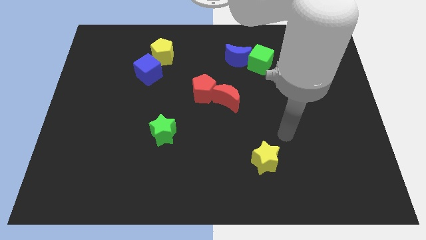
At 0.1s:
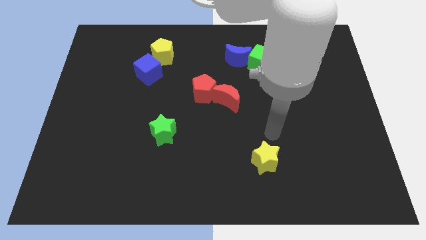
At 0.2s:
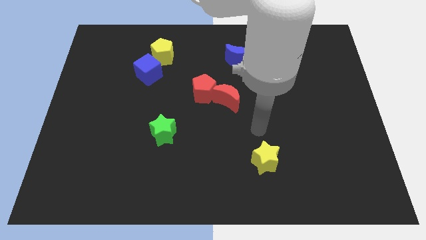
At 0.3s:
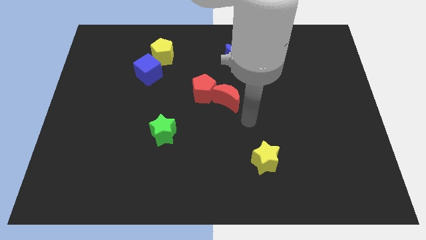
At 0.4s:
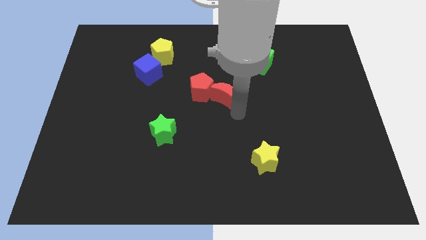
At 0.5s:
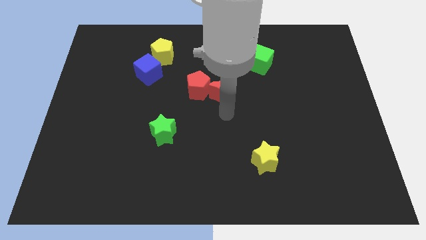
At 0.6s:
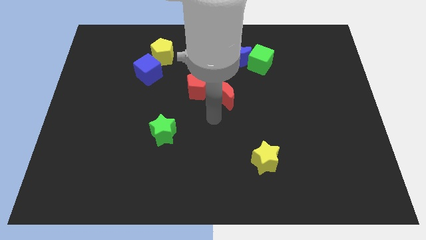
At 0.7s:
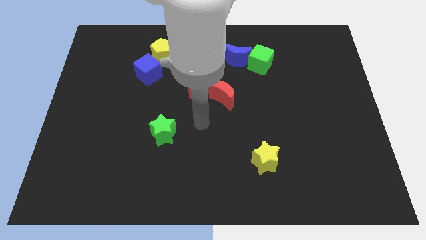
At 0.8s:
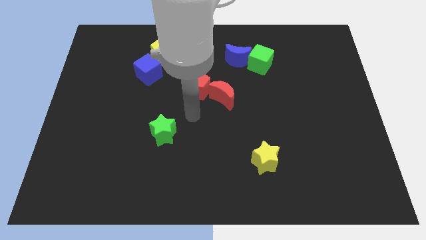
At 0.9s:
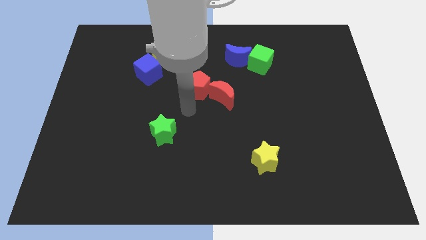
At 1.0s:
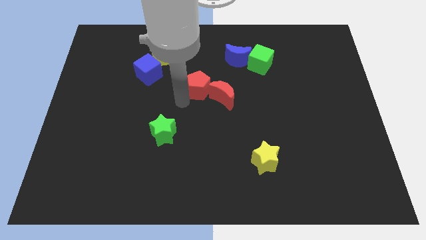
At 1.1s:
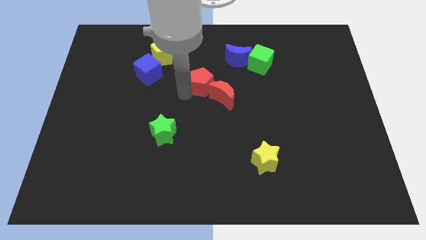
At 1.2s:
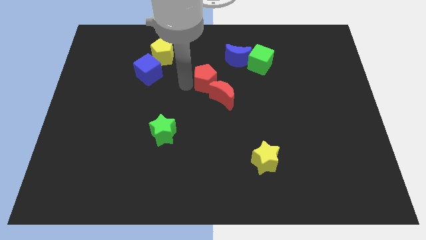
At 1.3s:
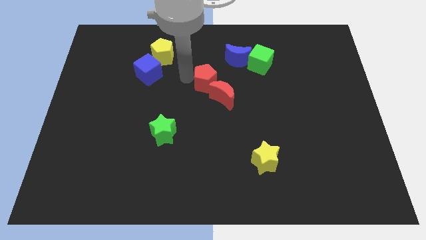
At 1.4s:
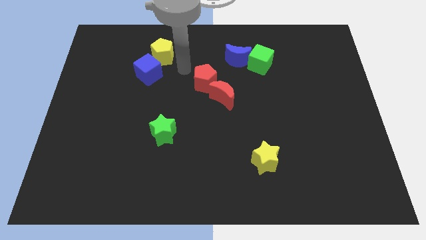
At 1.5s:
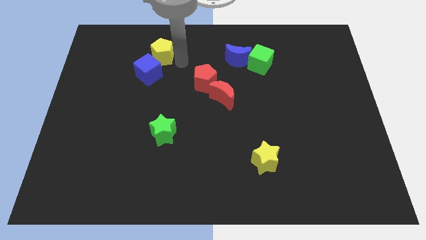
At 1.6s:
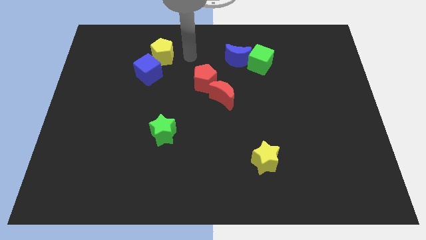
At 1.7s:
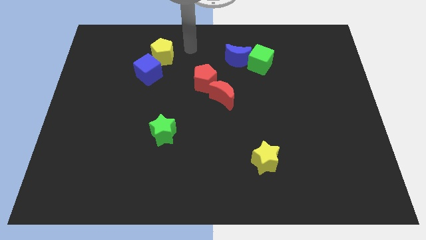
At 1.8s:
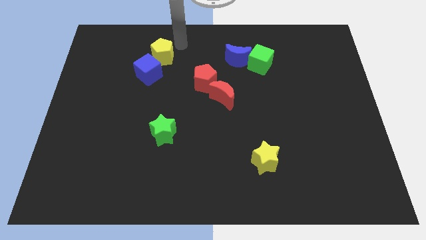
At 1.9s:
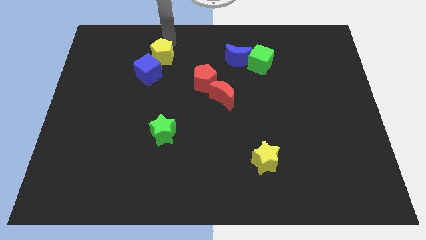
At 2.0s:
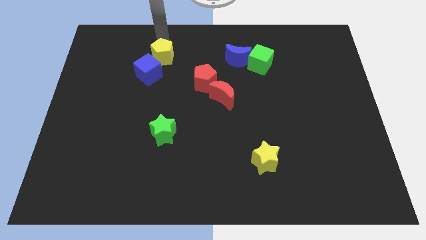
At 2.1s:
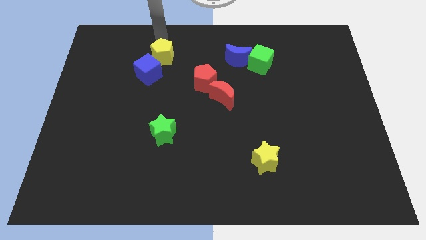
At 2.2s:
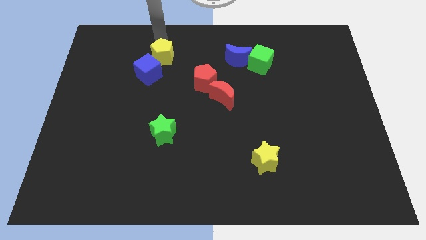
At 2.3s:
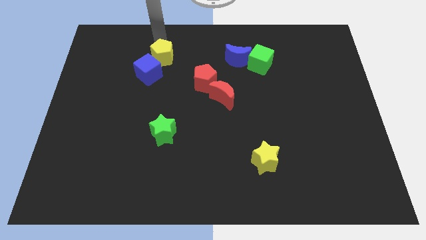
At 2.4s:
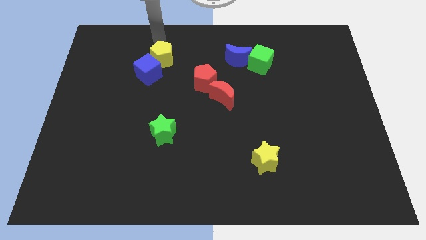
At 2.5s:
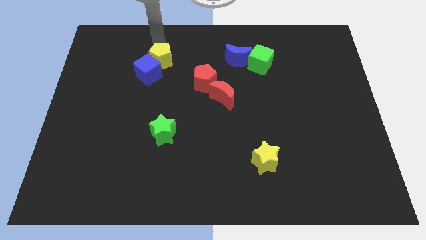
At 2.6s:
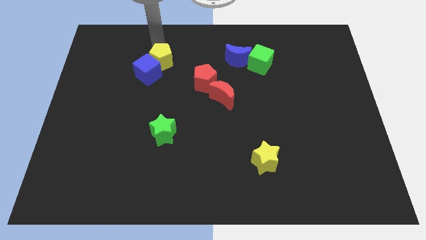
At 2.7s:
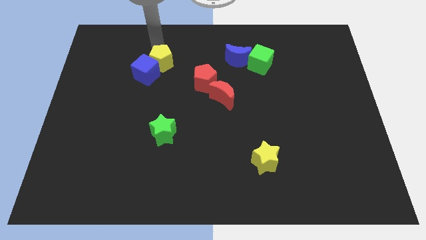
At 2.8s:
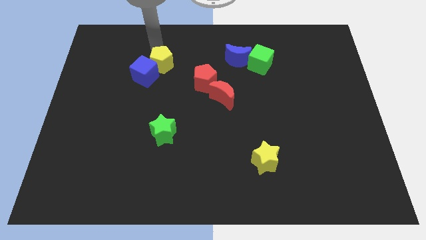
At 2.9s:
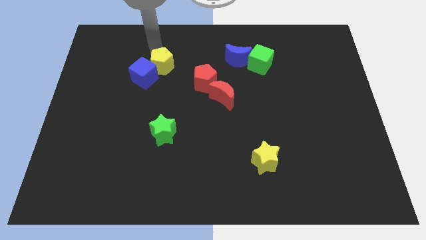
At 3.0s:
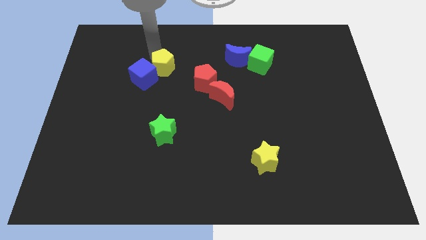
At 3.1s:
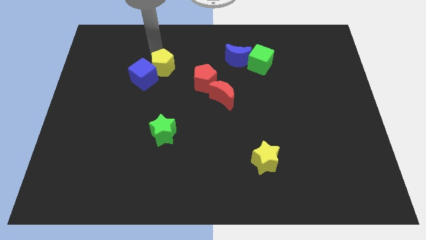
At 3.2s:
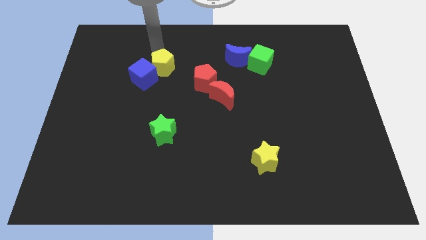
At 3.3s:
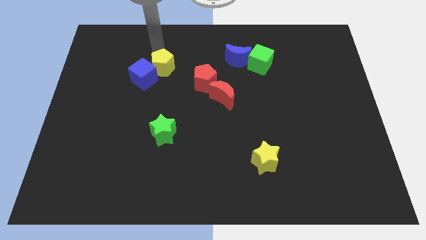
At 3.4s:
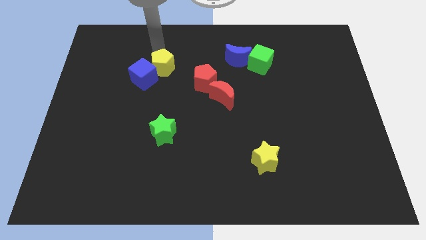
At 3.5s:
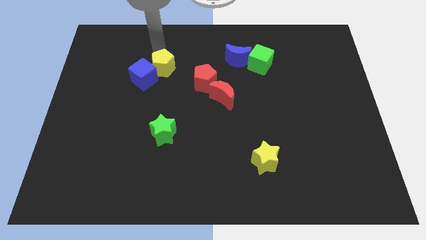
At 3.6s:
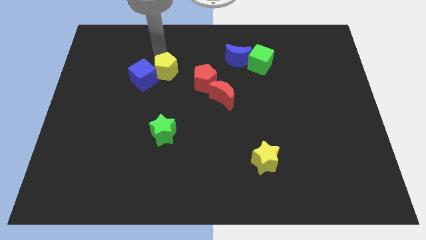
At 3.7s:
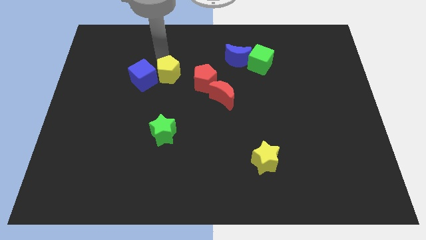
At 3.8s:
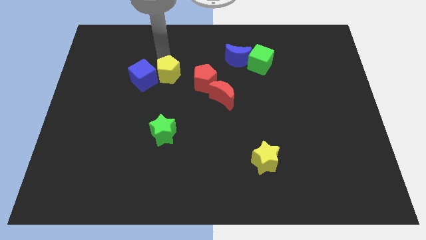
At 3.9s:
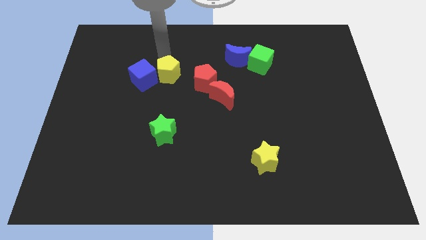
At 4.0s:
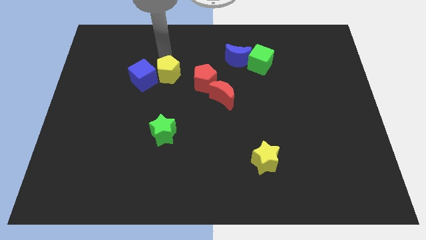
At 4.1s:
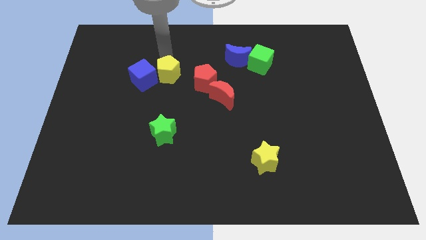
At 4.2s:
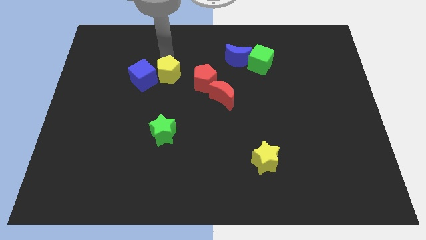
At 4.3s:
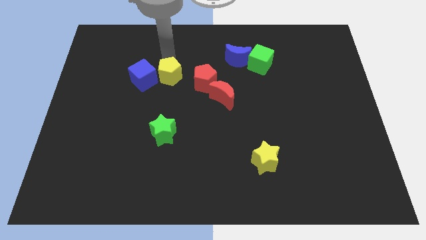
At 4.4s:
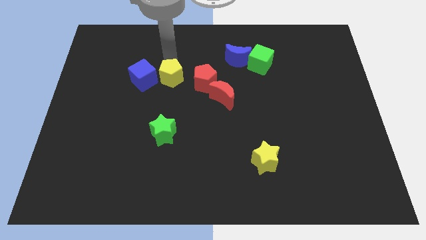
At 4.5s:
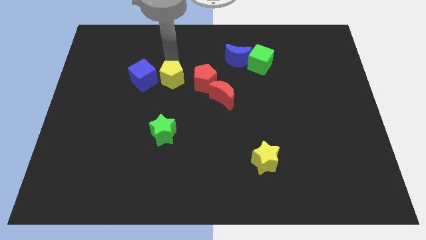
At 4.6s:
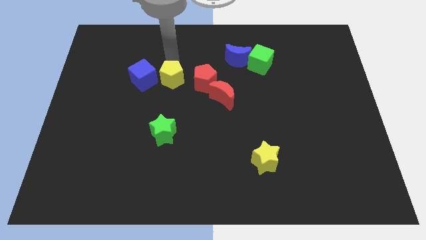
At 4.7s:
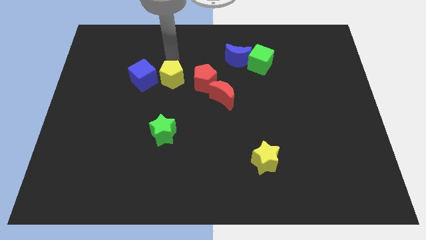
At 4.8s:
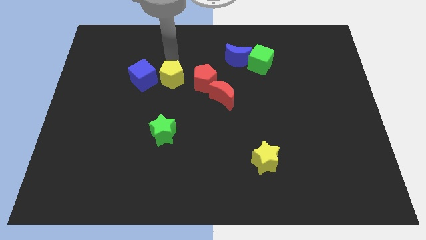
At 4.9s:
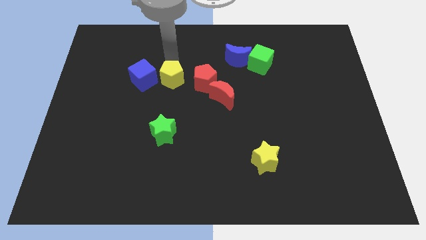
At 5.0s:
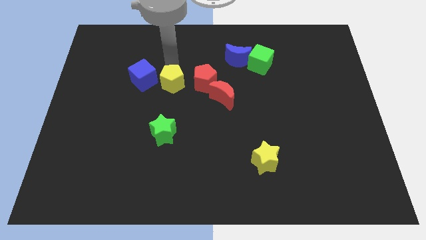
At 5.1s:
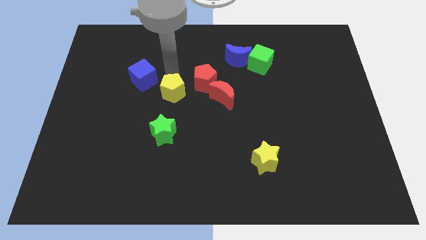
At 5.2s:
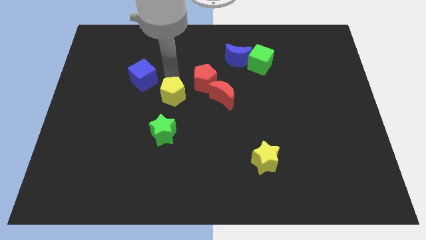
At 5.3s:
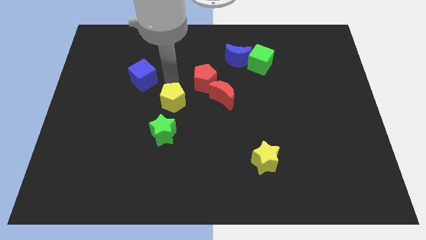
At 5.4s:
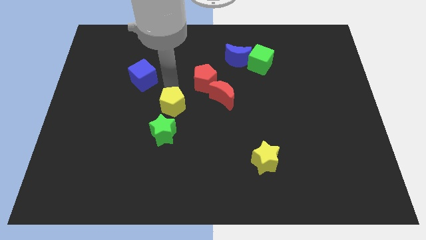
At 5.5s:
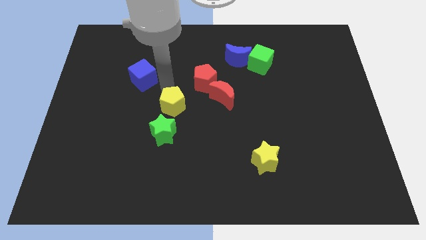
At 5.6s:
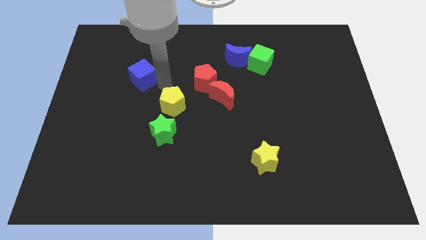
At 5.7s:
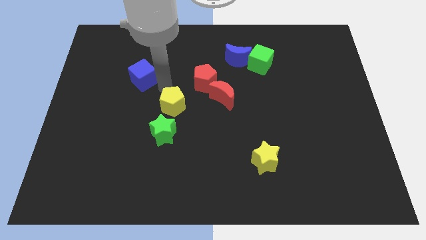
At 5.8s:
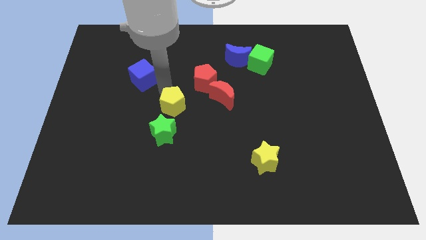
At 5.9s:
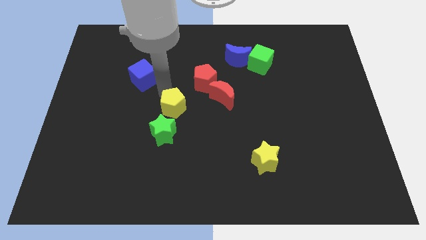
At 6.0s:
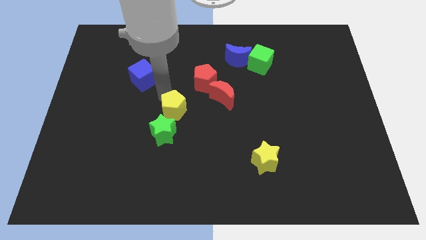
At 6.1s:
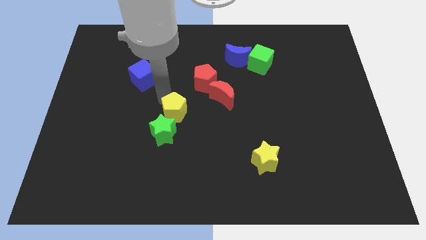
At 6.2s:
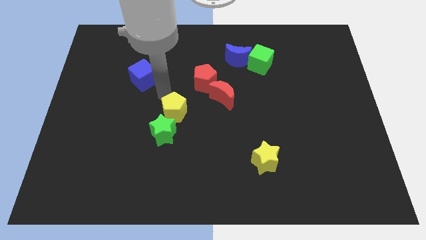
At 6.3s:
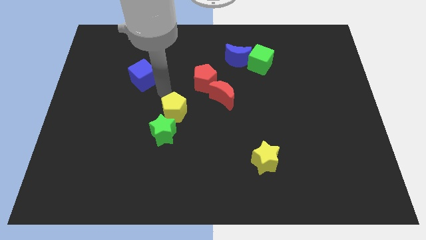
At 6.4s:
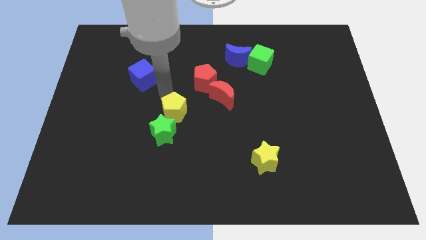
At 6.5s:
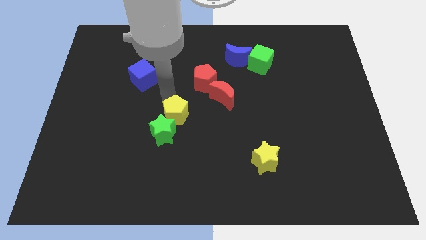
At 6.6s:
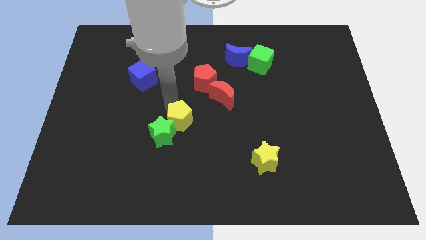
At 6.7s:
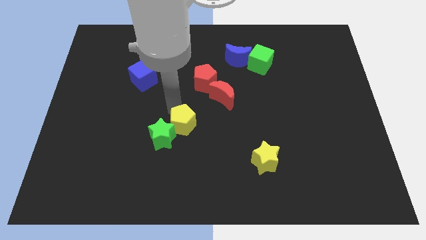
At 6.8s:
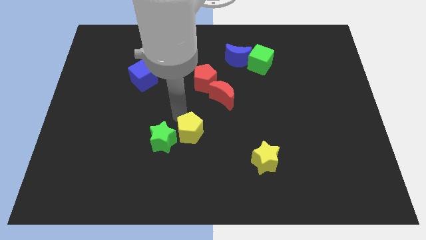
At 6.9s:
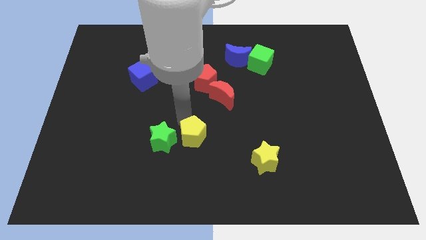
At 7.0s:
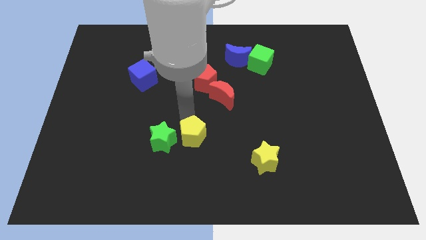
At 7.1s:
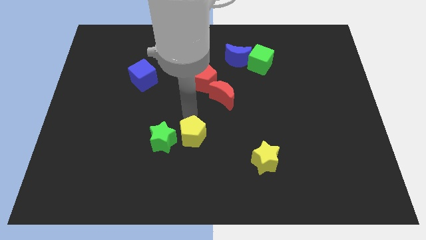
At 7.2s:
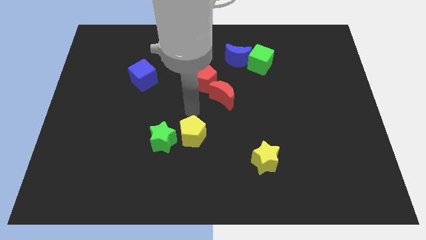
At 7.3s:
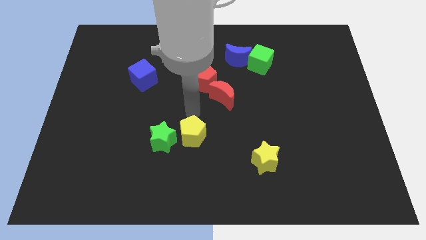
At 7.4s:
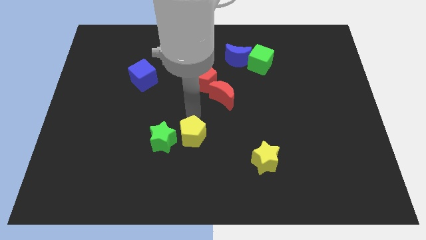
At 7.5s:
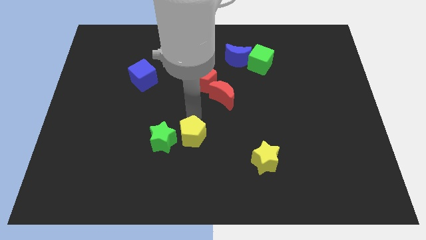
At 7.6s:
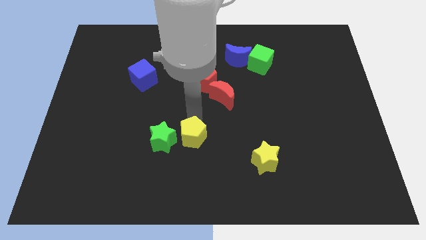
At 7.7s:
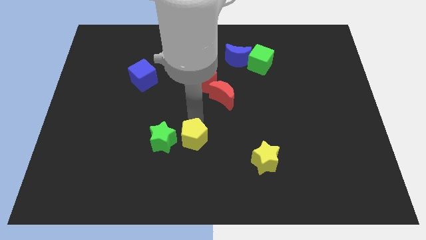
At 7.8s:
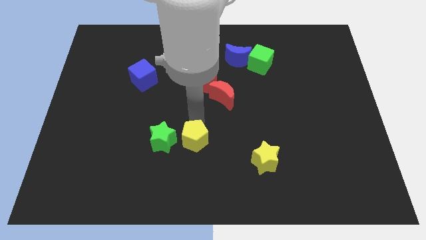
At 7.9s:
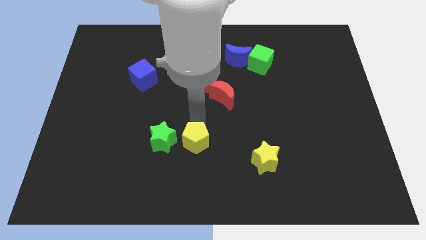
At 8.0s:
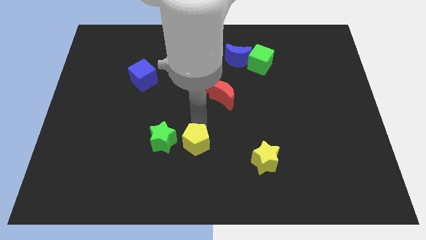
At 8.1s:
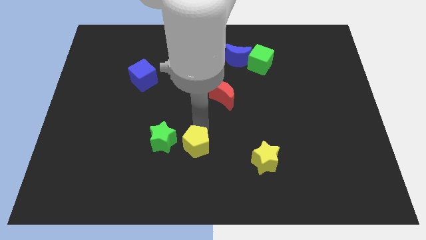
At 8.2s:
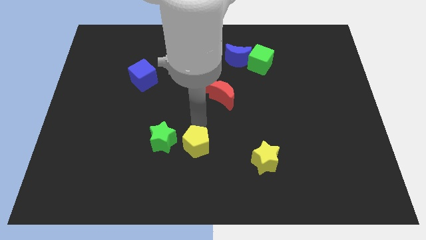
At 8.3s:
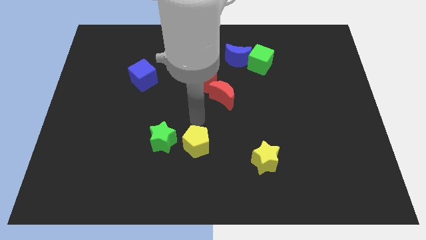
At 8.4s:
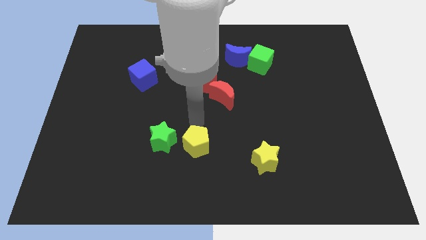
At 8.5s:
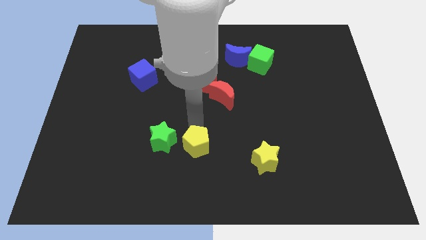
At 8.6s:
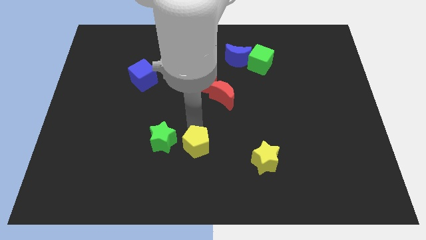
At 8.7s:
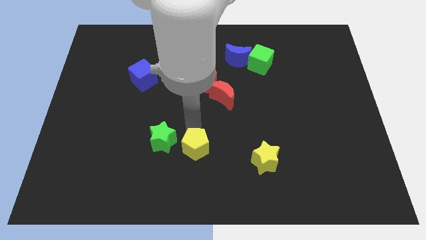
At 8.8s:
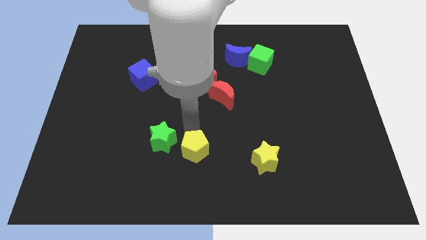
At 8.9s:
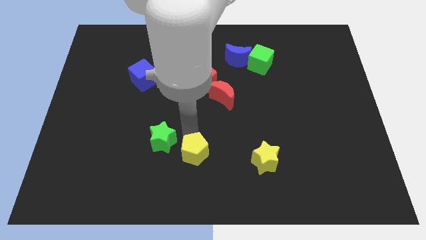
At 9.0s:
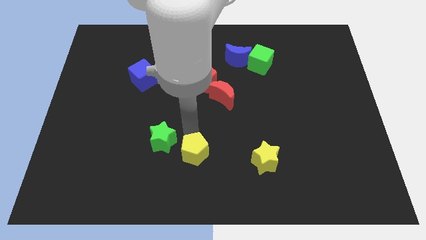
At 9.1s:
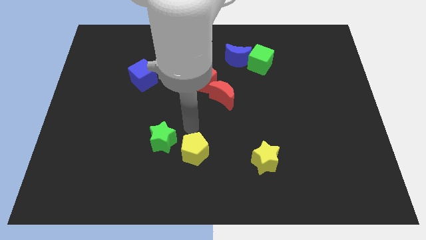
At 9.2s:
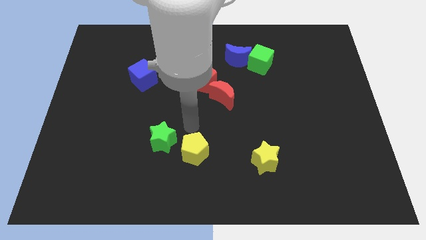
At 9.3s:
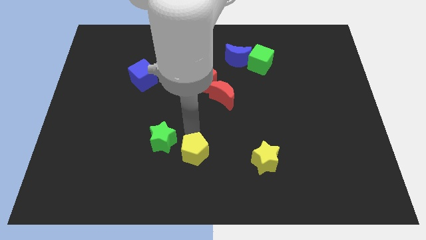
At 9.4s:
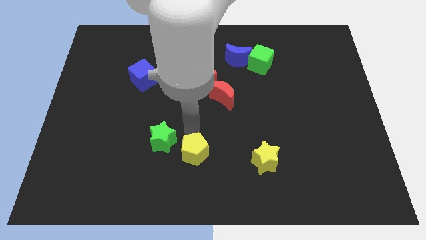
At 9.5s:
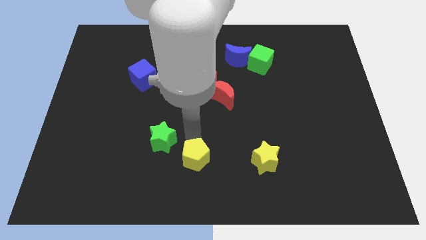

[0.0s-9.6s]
move the yellow pentagon to the bottom side
